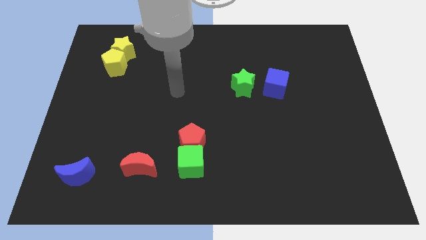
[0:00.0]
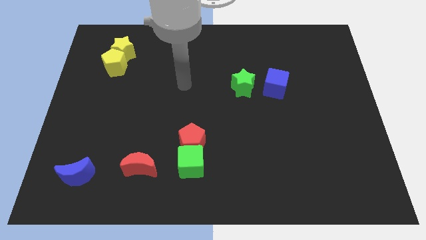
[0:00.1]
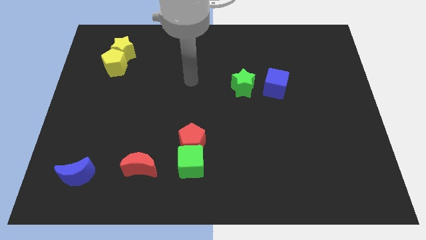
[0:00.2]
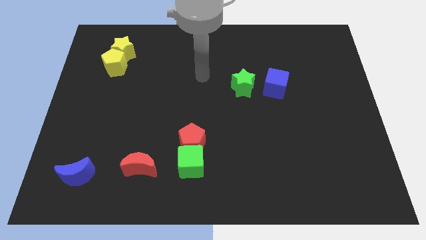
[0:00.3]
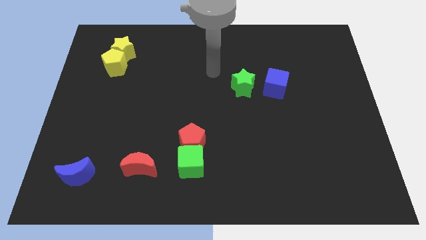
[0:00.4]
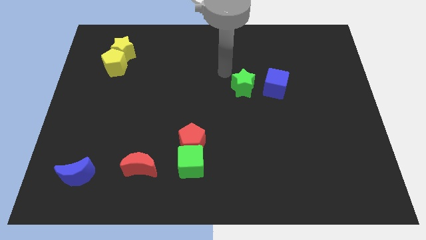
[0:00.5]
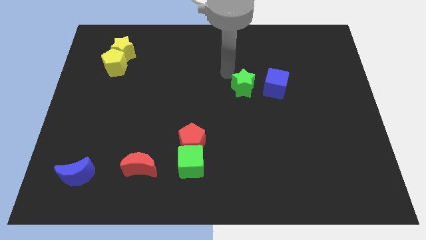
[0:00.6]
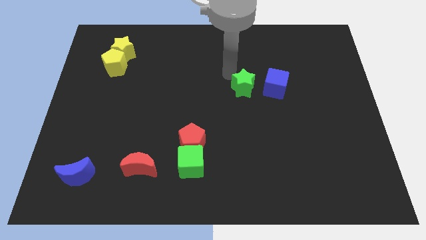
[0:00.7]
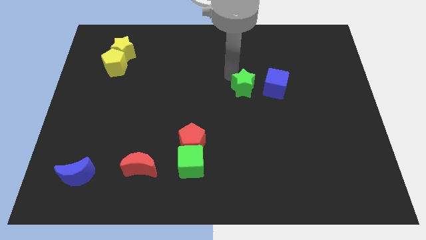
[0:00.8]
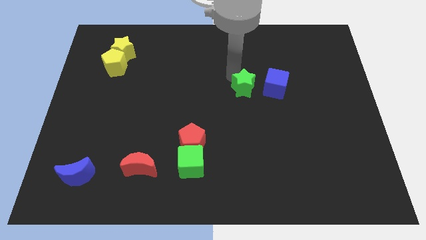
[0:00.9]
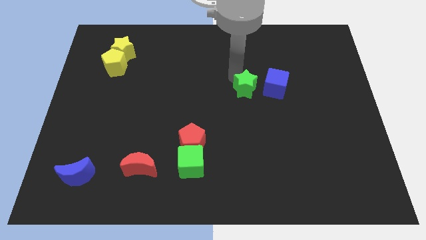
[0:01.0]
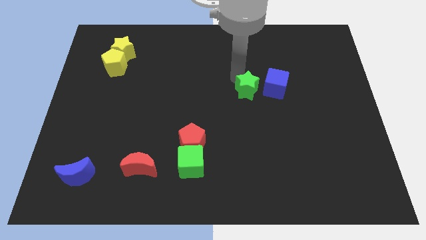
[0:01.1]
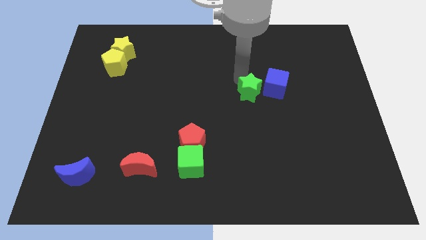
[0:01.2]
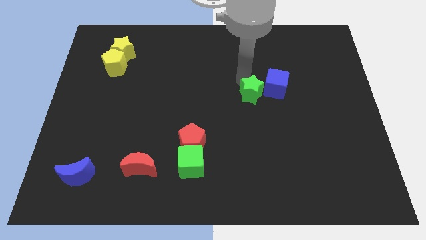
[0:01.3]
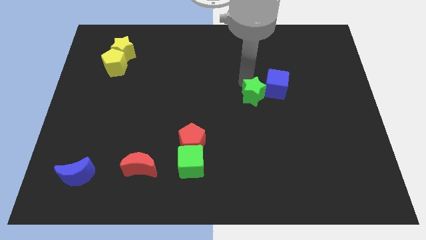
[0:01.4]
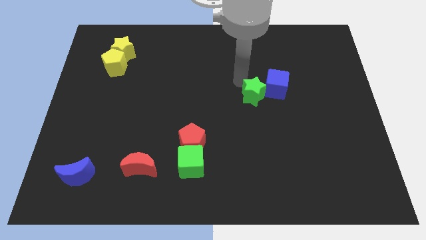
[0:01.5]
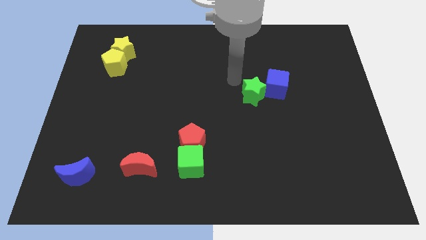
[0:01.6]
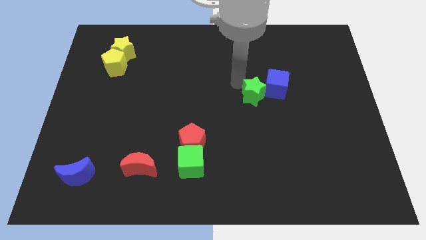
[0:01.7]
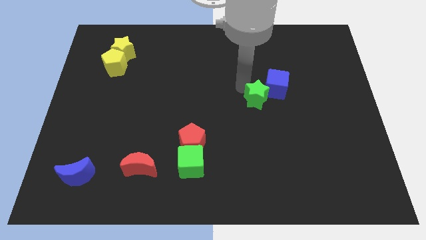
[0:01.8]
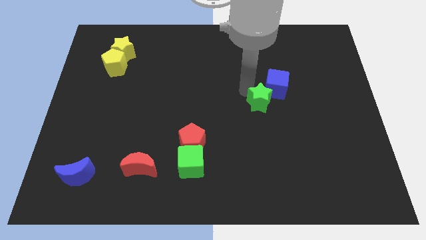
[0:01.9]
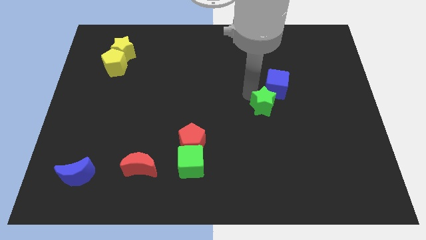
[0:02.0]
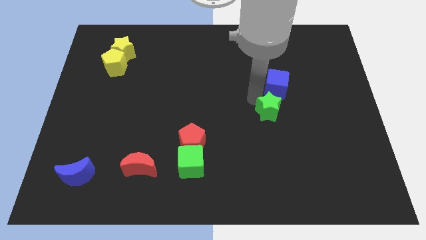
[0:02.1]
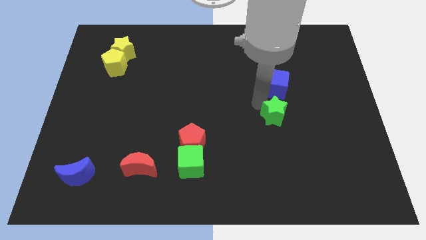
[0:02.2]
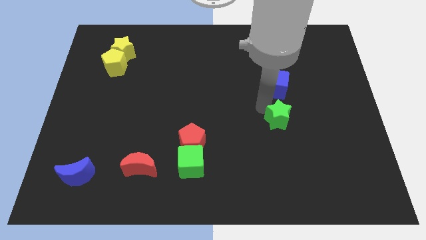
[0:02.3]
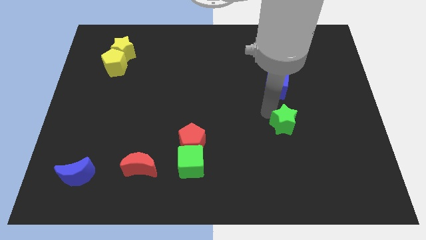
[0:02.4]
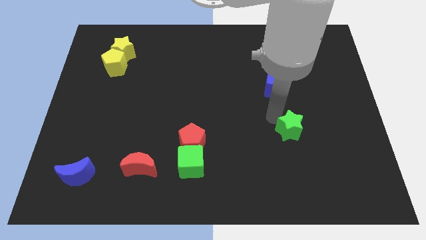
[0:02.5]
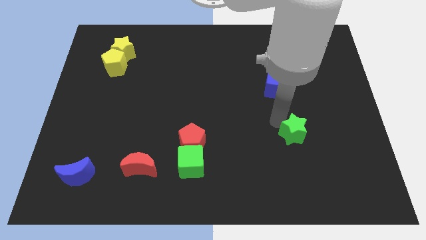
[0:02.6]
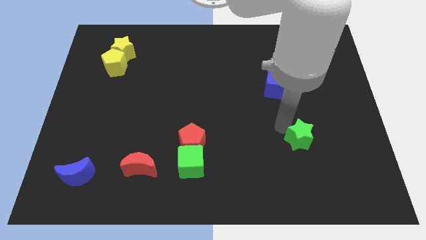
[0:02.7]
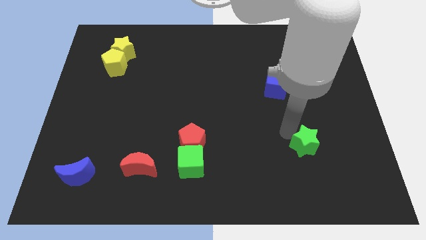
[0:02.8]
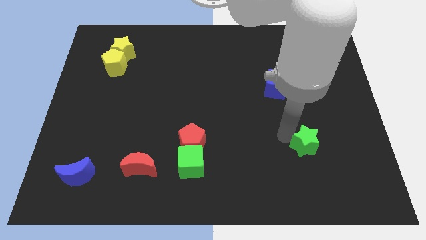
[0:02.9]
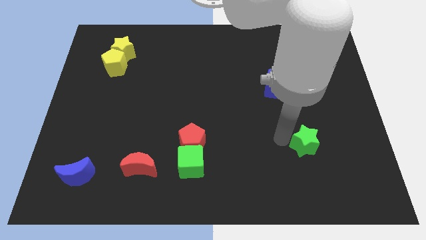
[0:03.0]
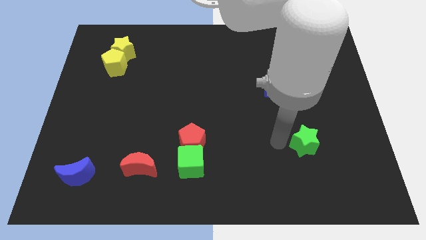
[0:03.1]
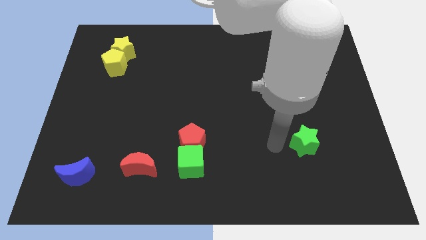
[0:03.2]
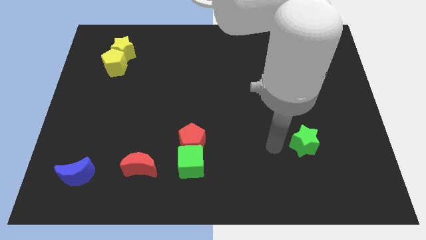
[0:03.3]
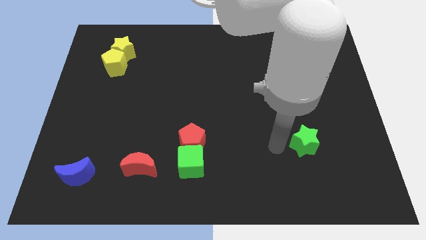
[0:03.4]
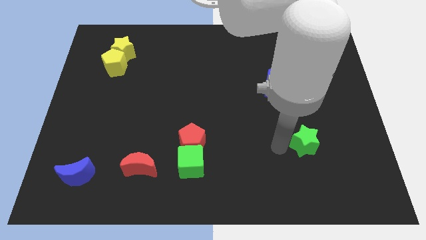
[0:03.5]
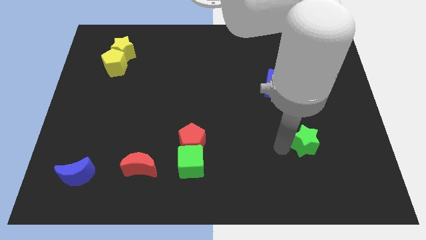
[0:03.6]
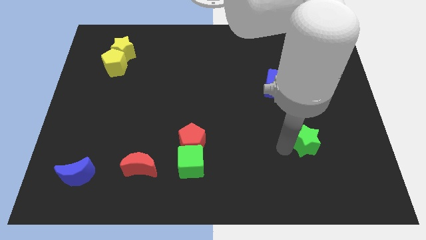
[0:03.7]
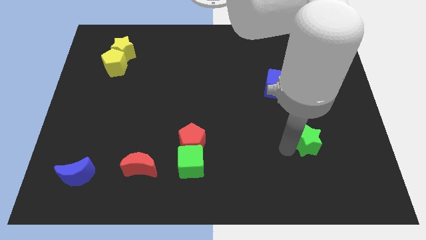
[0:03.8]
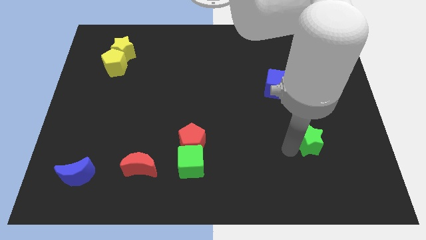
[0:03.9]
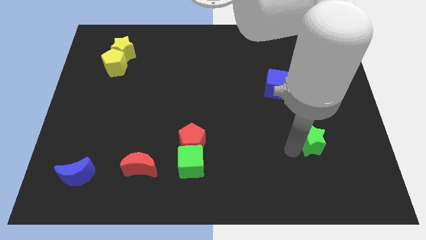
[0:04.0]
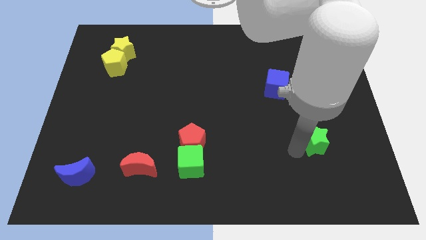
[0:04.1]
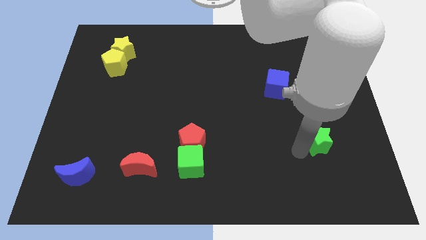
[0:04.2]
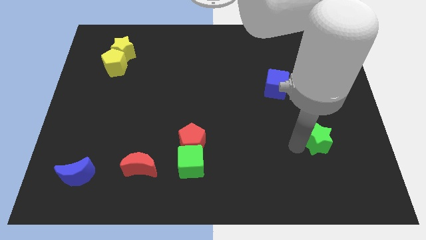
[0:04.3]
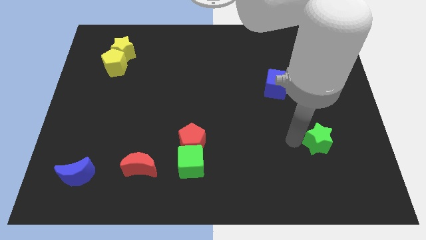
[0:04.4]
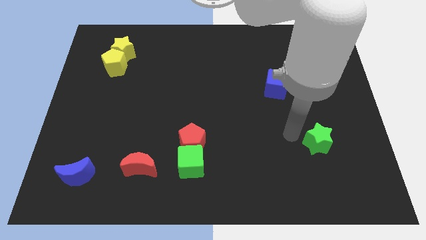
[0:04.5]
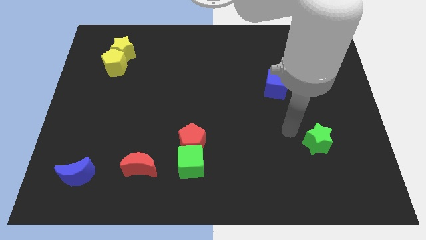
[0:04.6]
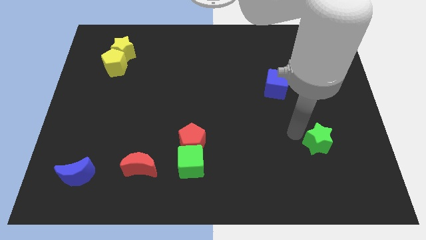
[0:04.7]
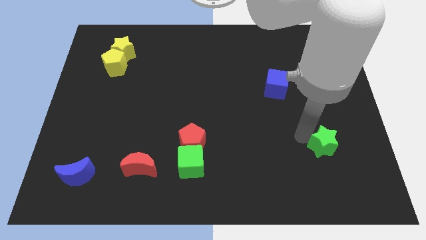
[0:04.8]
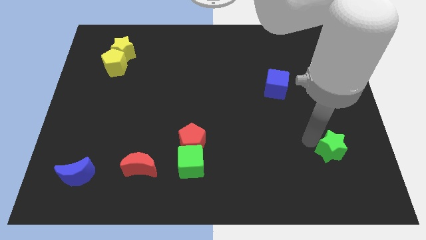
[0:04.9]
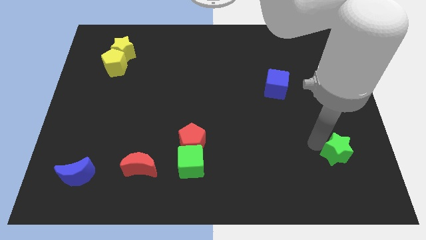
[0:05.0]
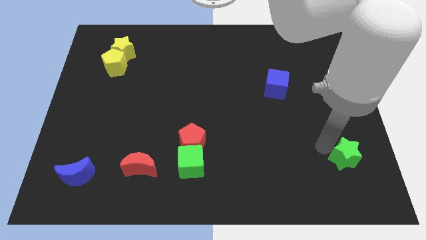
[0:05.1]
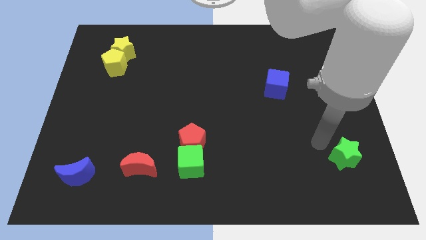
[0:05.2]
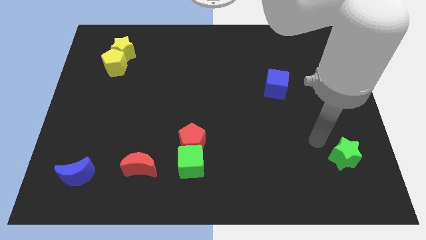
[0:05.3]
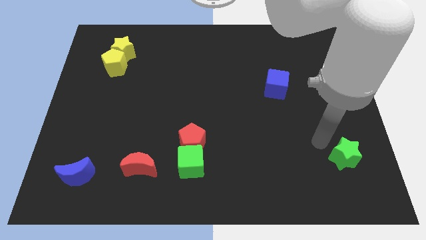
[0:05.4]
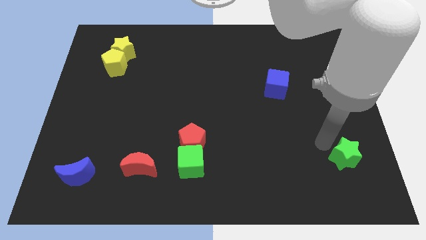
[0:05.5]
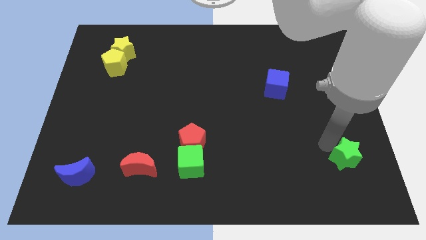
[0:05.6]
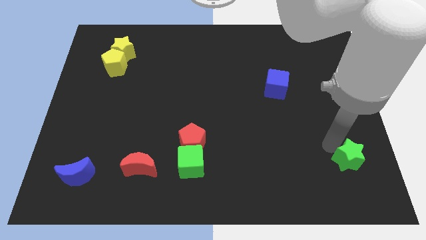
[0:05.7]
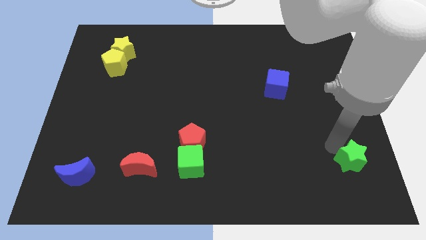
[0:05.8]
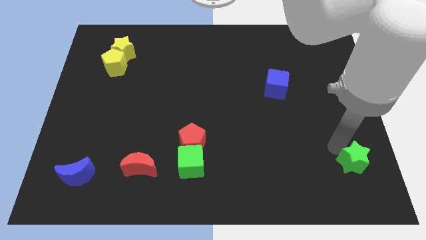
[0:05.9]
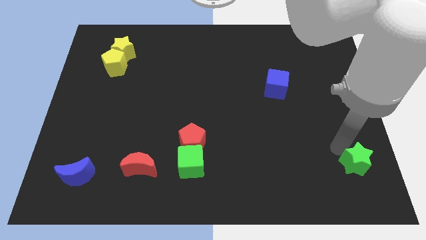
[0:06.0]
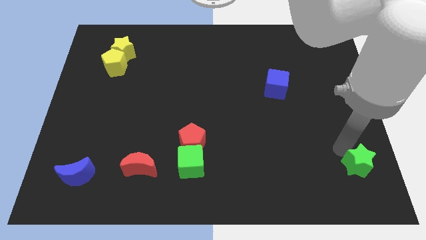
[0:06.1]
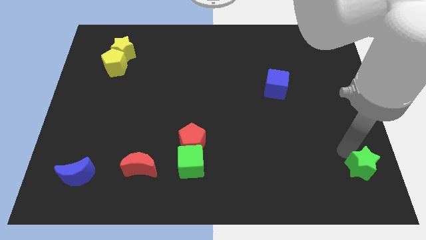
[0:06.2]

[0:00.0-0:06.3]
put the green star to the bottom right of the board

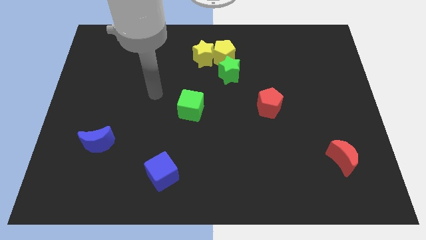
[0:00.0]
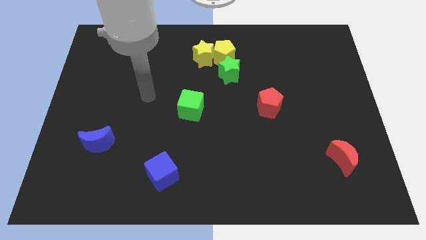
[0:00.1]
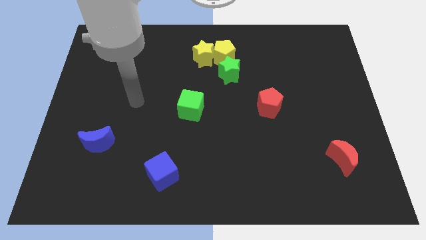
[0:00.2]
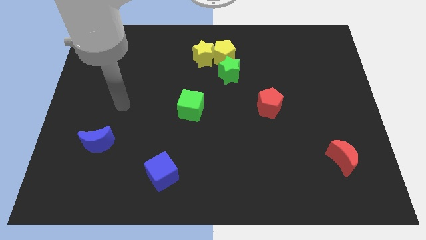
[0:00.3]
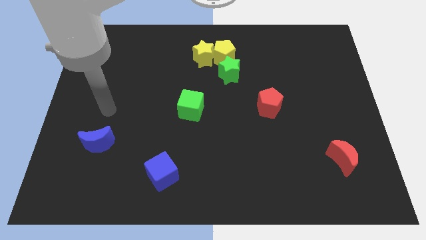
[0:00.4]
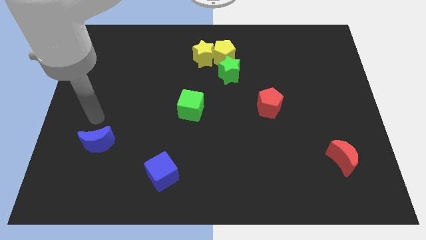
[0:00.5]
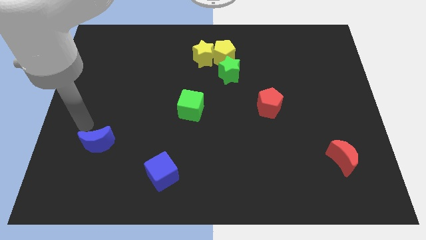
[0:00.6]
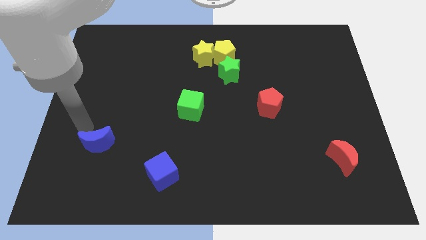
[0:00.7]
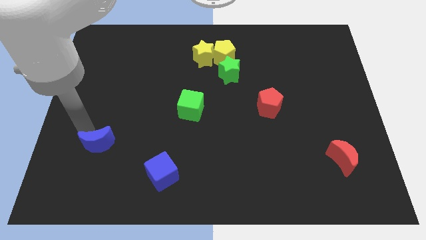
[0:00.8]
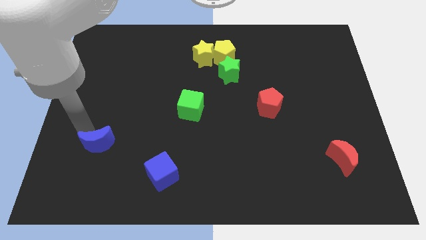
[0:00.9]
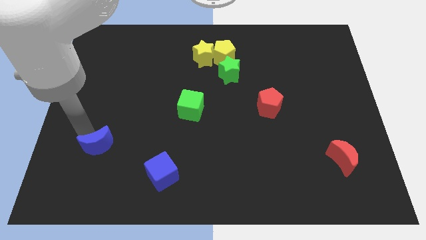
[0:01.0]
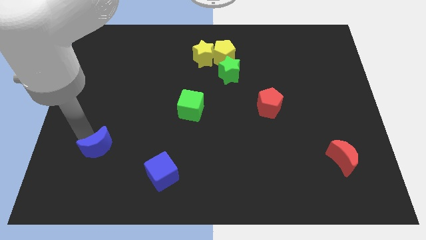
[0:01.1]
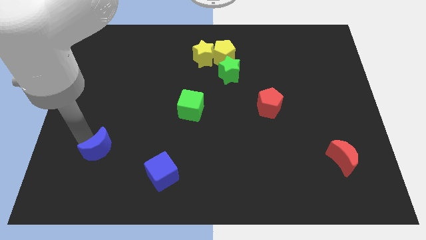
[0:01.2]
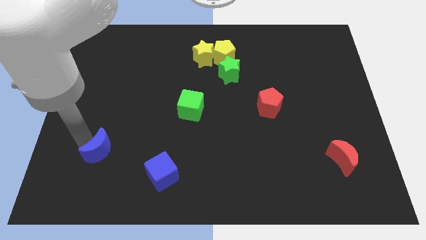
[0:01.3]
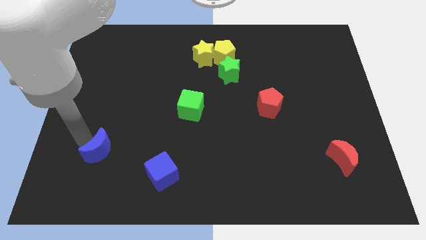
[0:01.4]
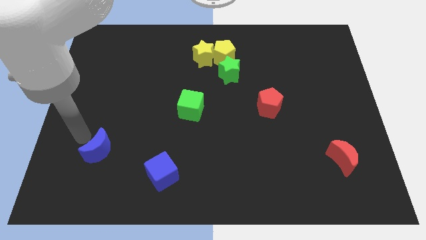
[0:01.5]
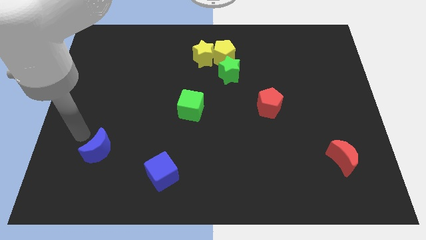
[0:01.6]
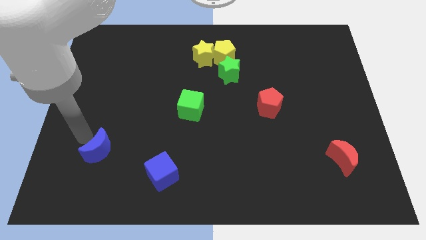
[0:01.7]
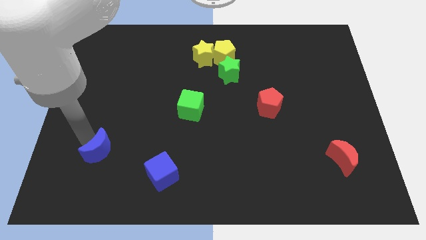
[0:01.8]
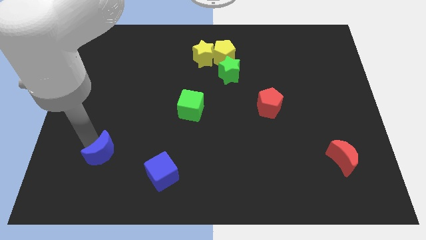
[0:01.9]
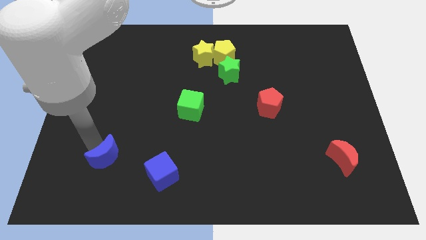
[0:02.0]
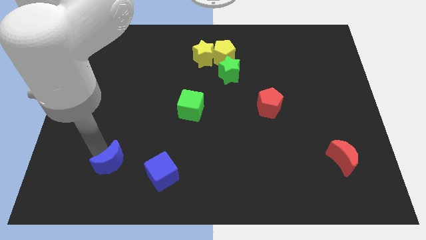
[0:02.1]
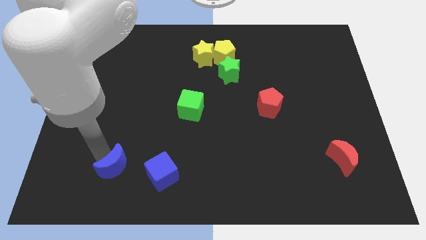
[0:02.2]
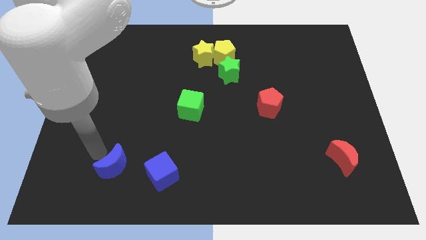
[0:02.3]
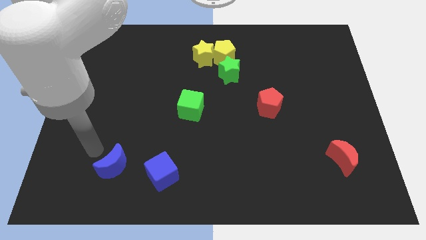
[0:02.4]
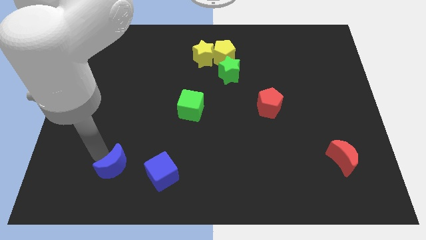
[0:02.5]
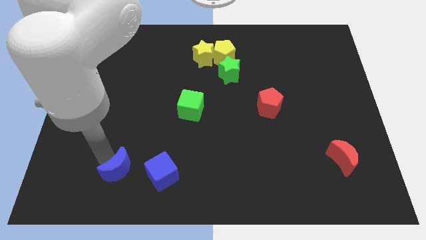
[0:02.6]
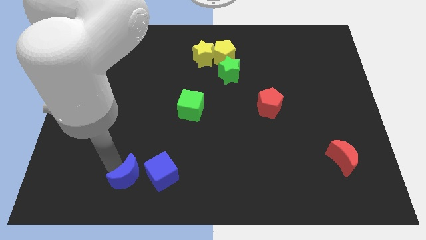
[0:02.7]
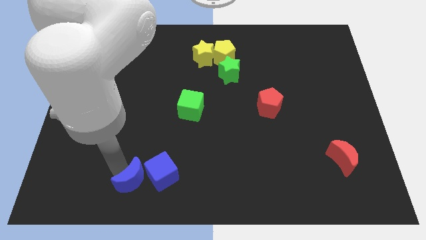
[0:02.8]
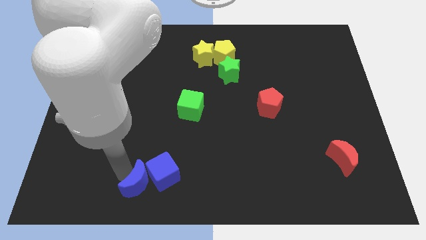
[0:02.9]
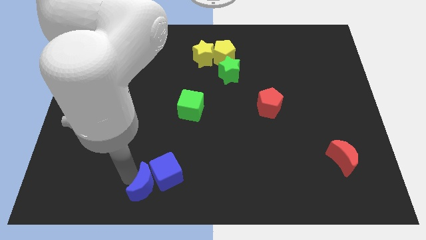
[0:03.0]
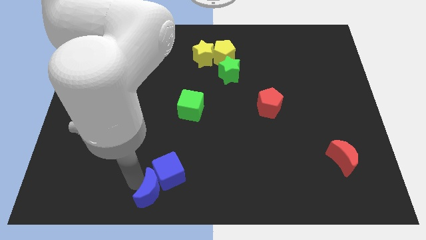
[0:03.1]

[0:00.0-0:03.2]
slide the blue moon to the bottom
